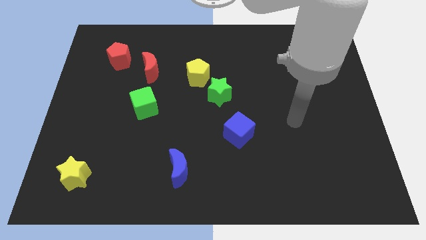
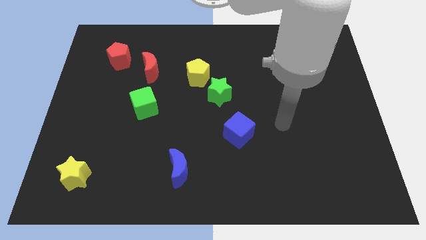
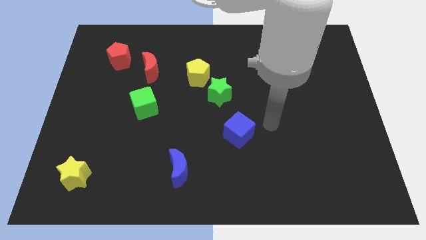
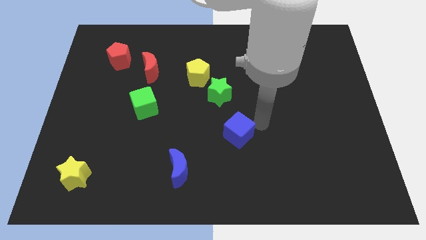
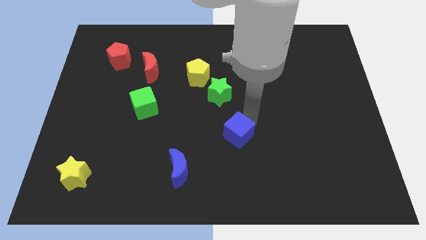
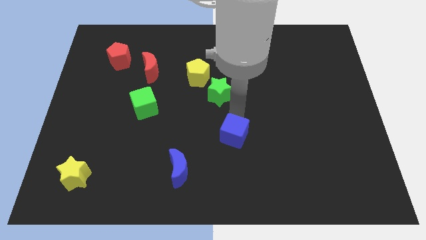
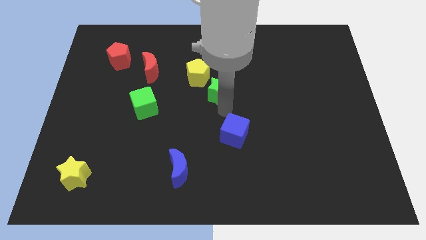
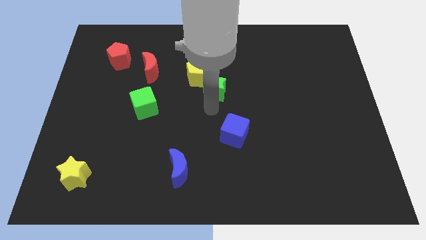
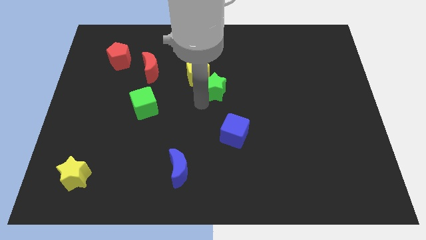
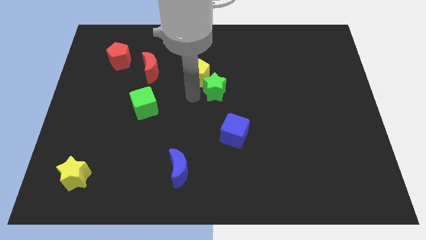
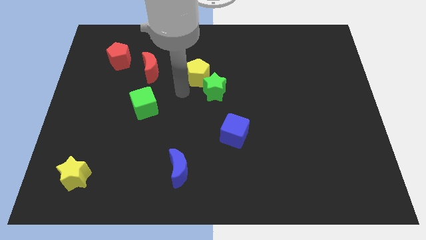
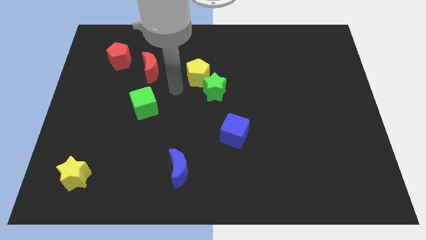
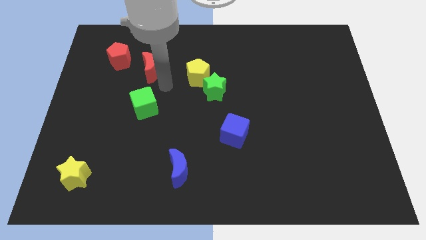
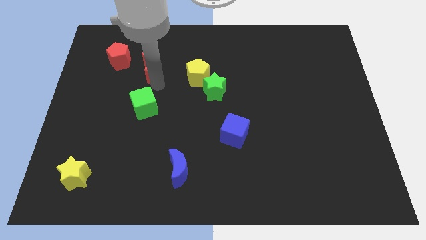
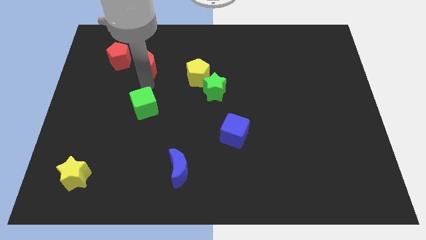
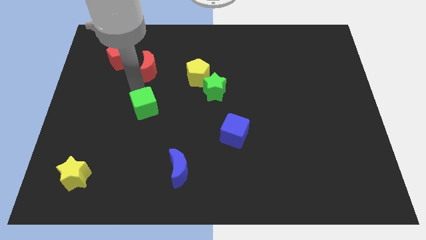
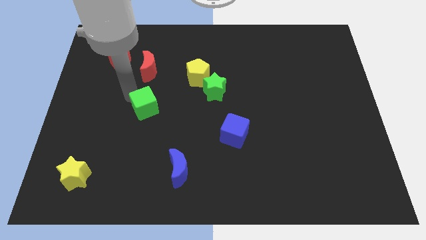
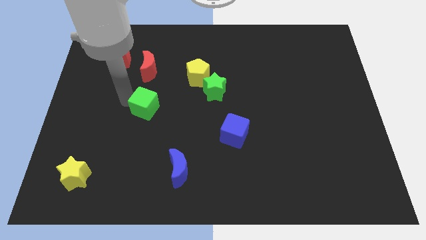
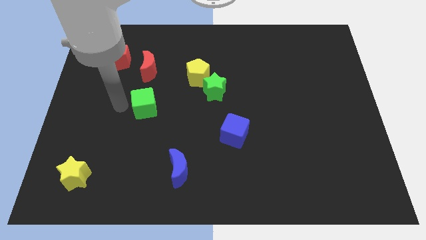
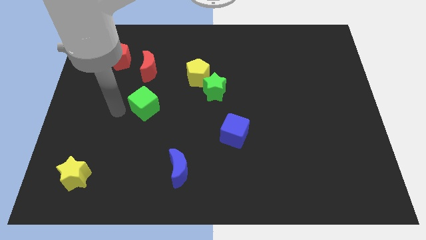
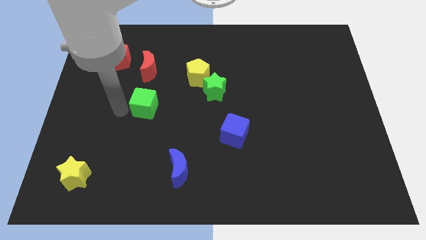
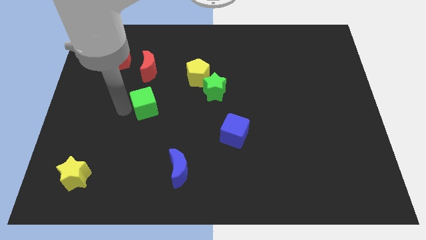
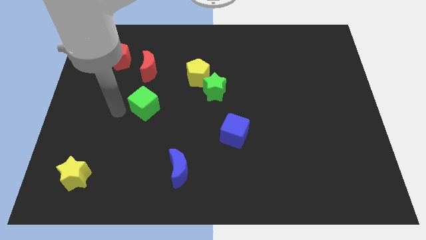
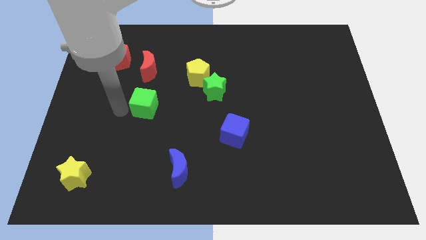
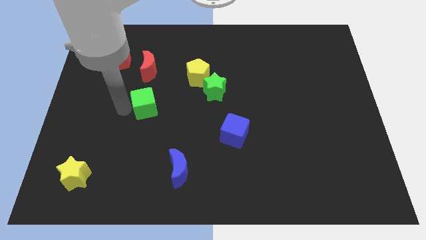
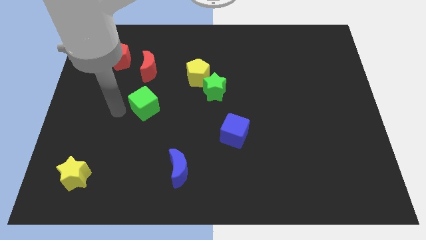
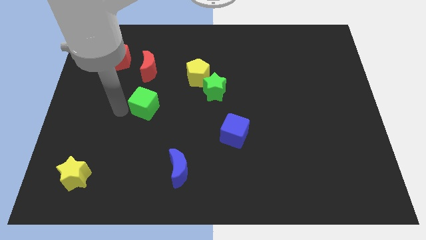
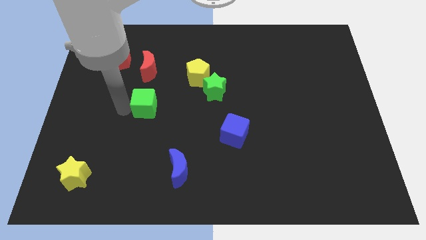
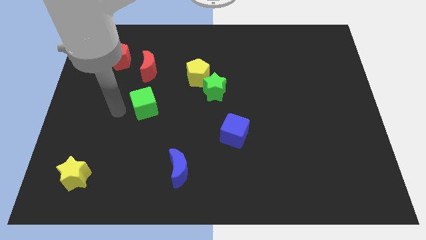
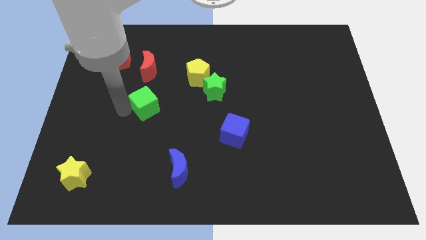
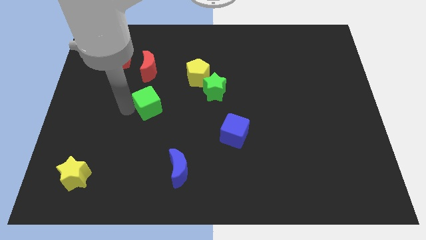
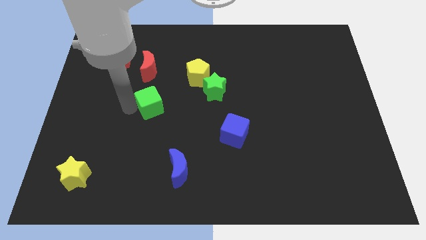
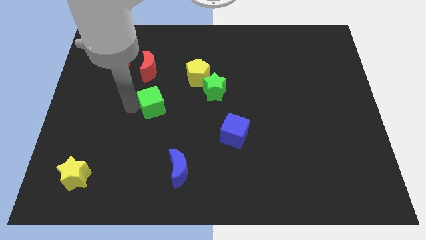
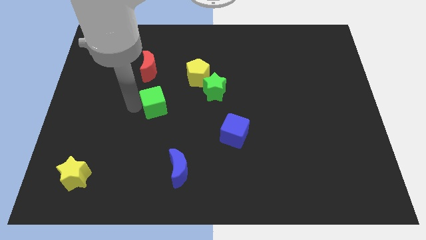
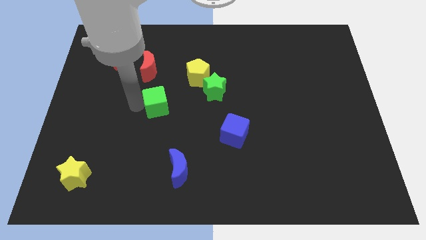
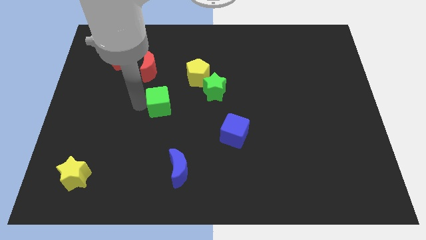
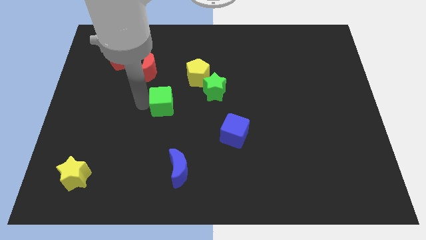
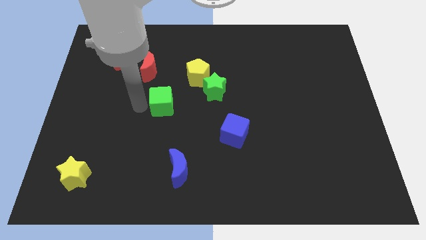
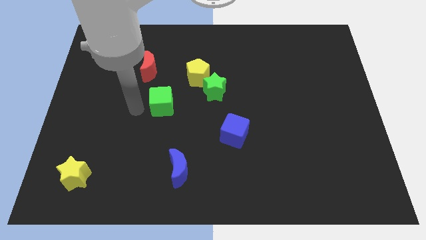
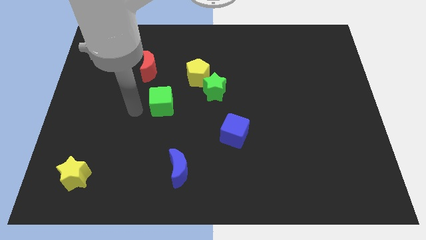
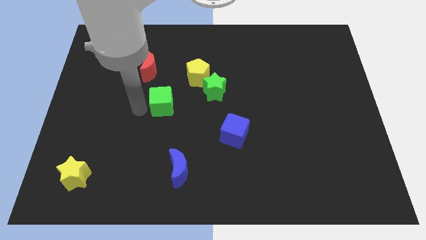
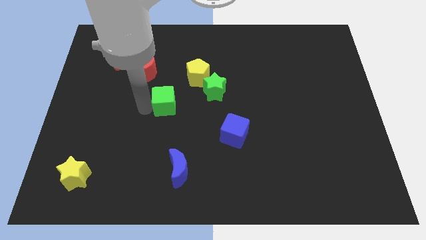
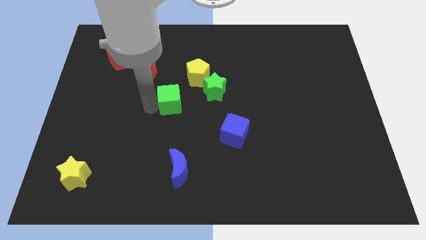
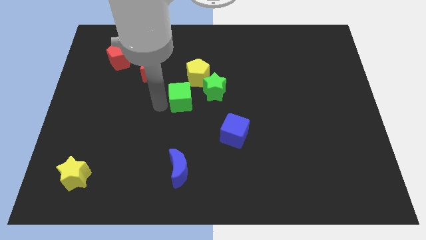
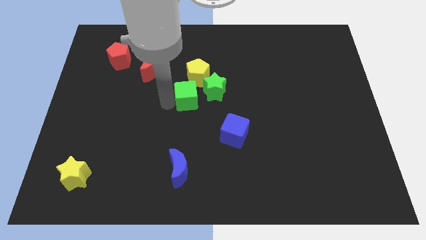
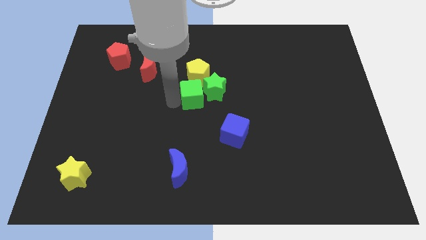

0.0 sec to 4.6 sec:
move the green cube close to the green star

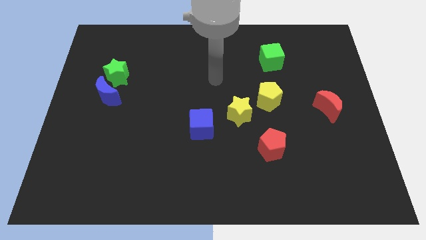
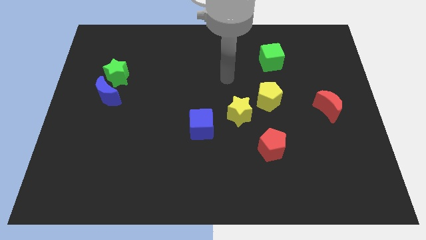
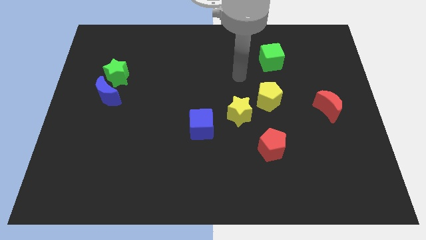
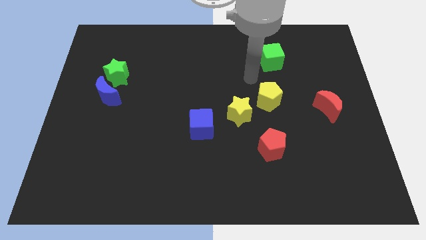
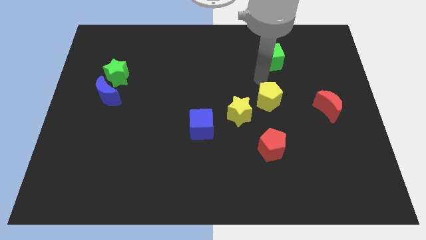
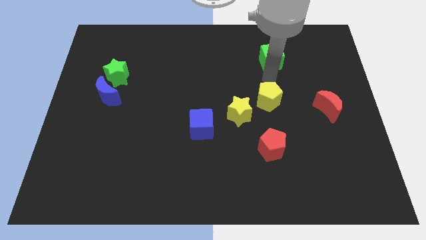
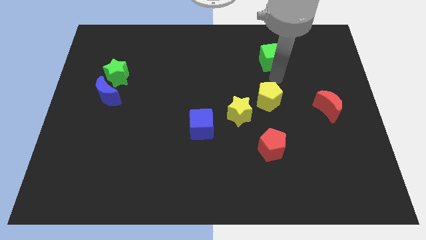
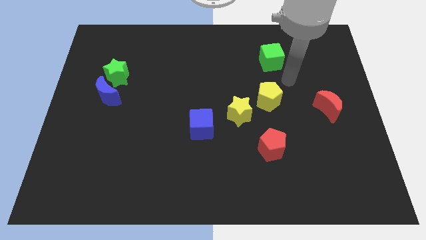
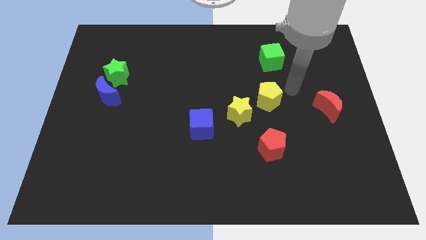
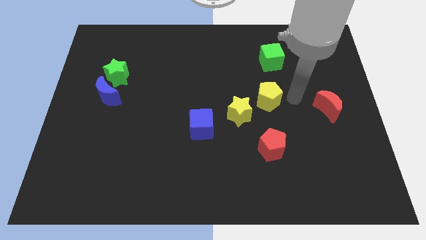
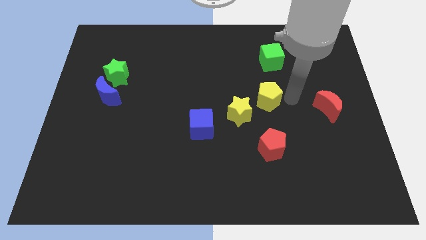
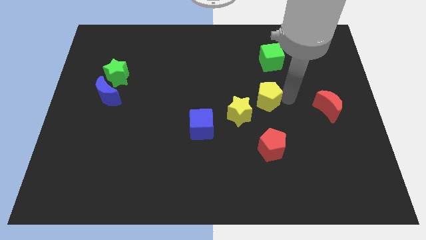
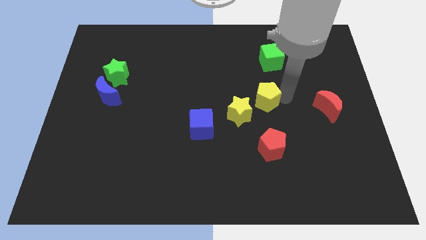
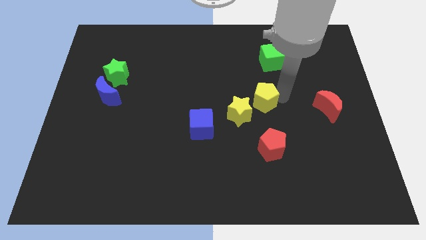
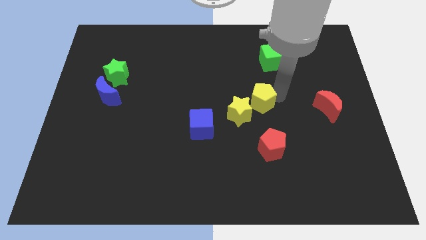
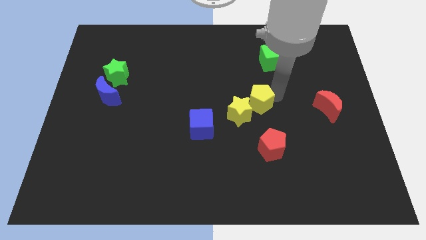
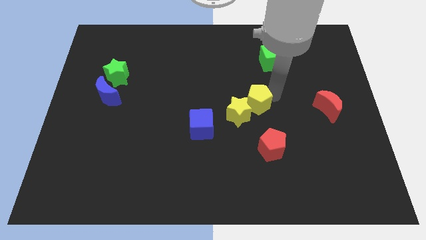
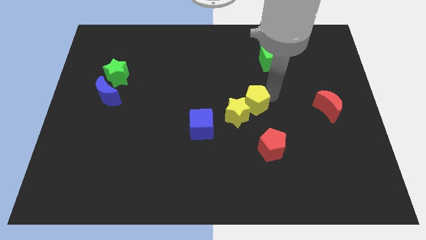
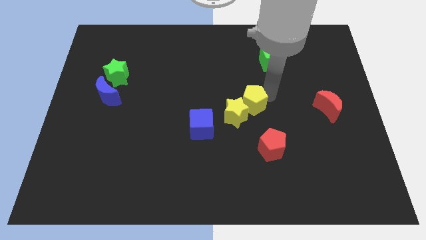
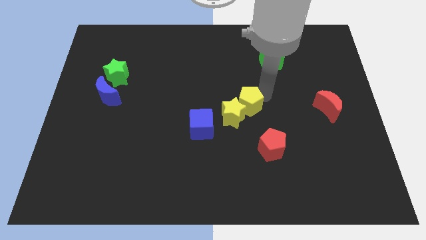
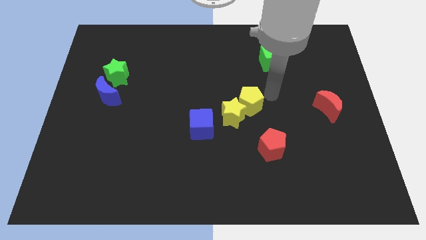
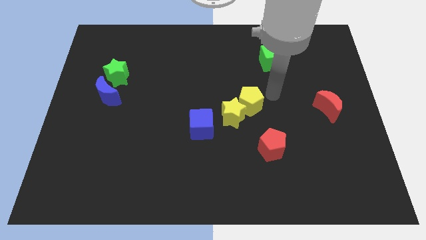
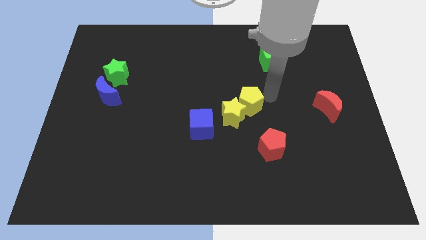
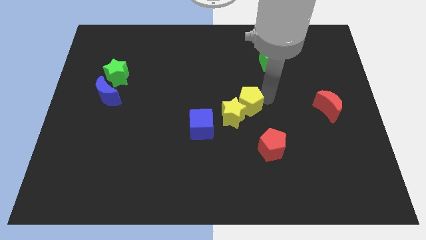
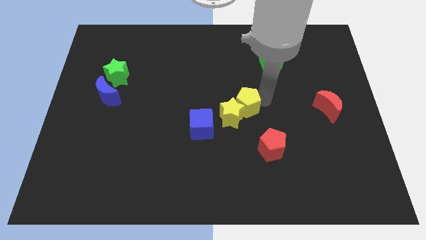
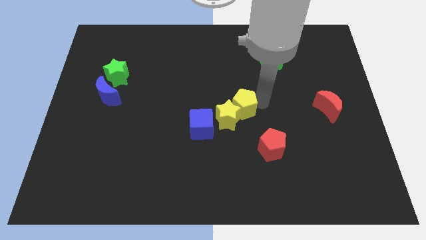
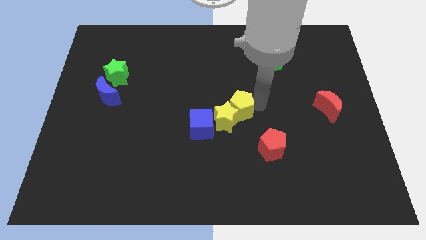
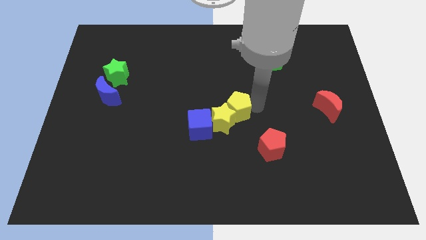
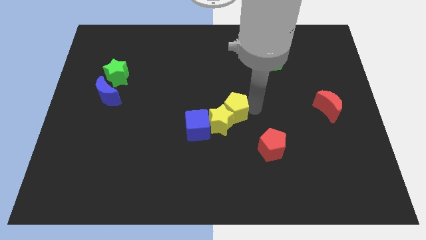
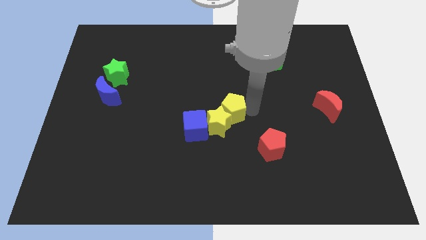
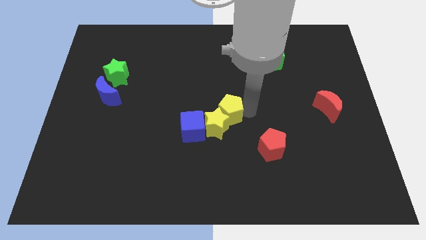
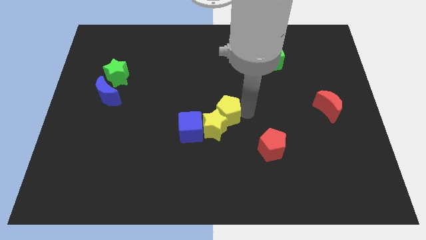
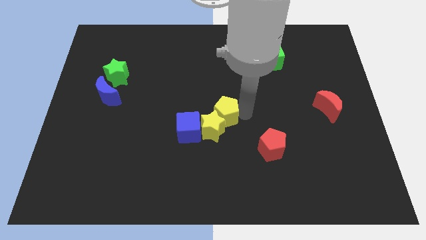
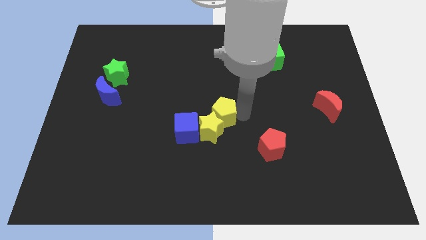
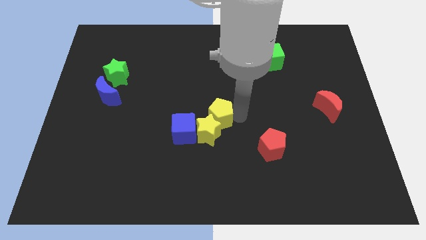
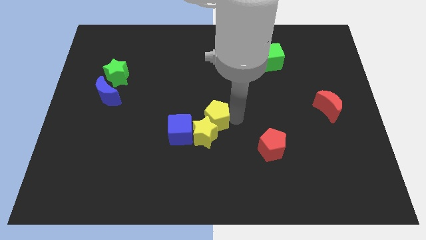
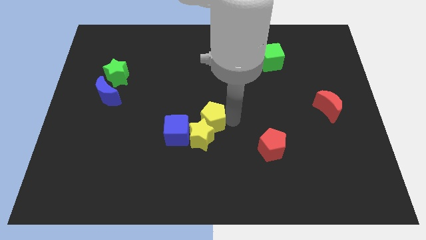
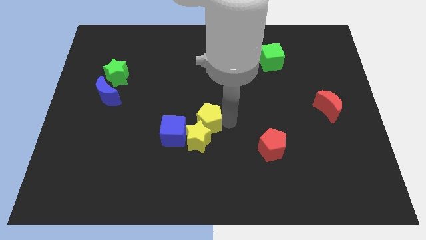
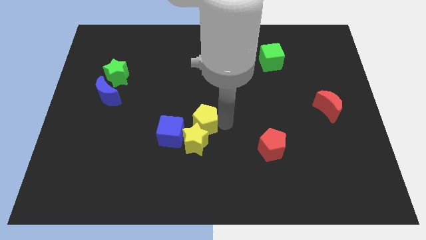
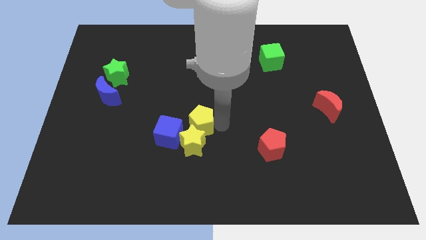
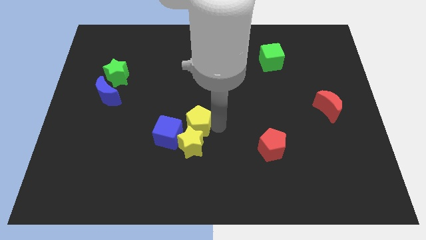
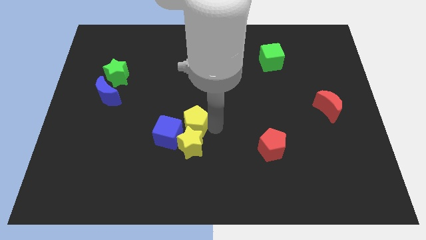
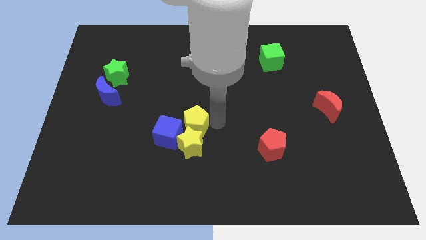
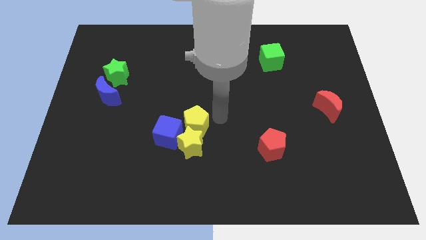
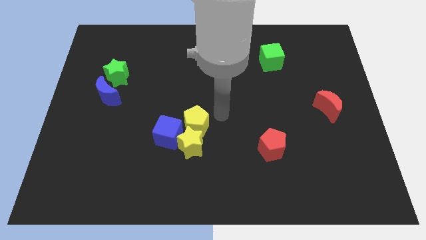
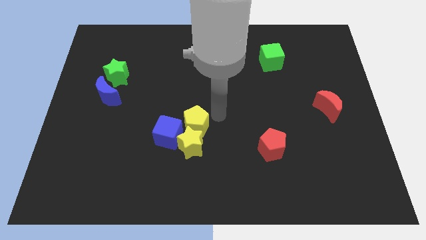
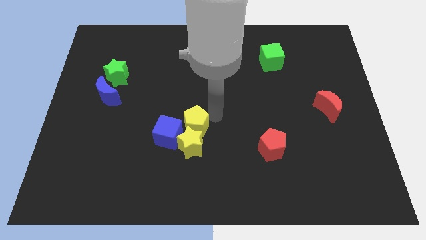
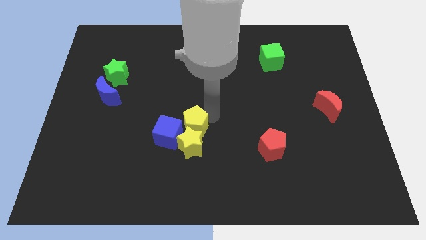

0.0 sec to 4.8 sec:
push the yellow pentagon close to the blue cube
